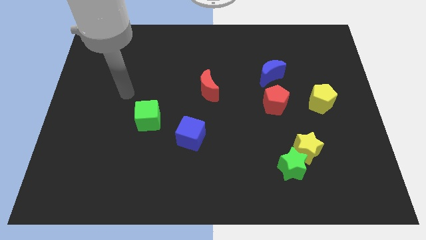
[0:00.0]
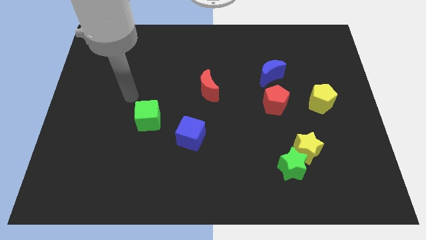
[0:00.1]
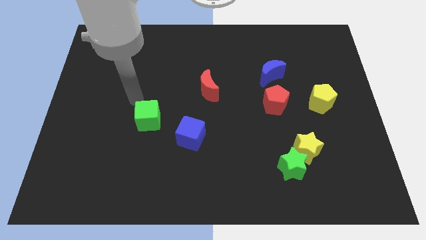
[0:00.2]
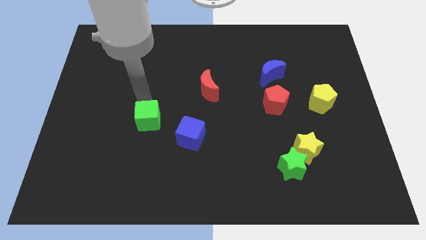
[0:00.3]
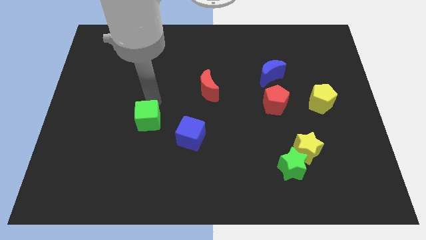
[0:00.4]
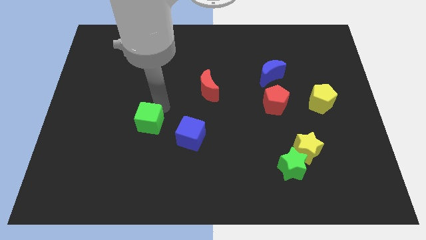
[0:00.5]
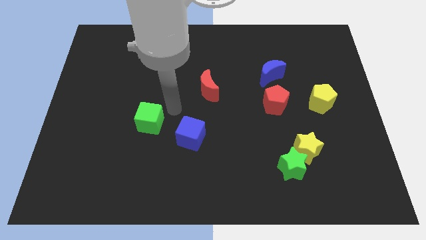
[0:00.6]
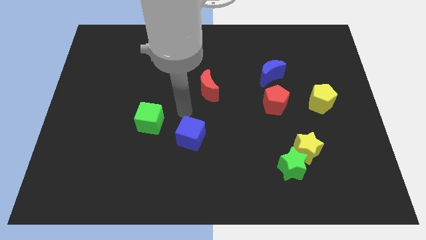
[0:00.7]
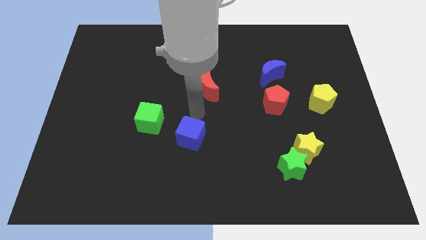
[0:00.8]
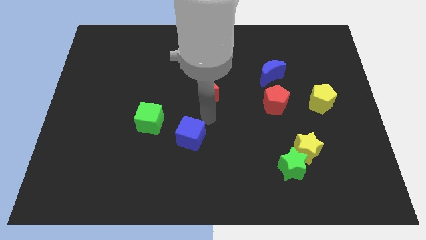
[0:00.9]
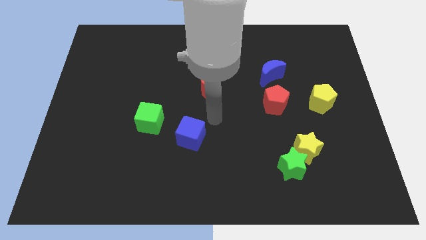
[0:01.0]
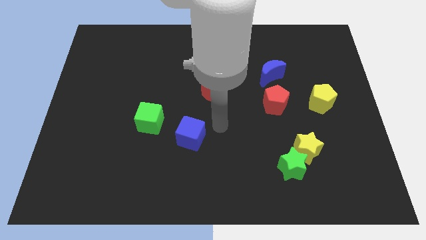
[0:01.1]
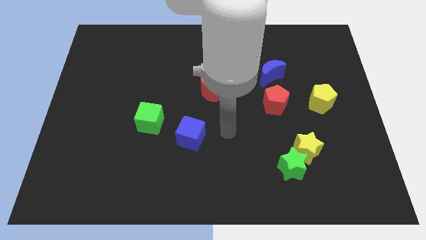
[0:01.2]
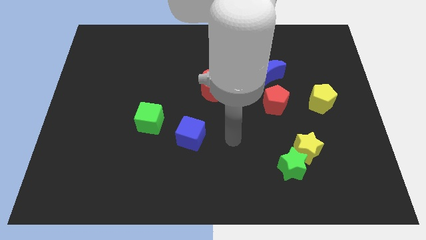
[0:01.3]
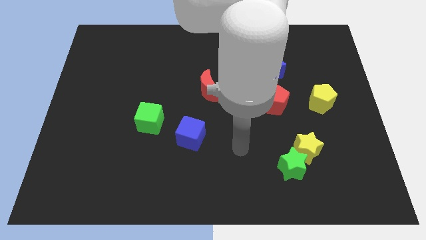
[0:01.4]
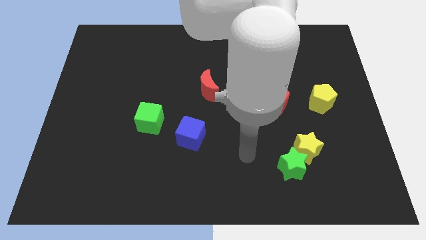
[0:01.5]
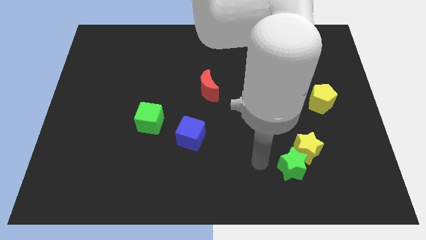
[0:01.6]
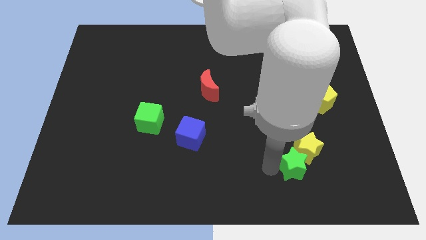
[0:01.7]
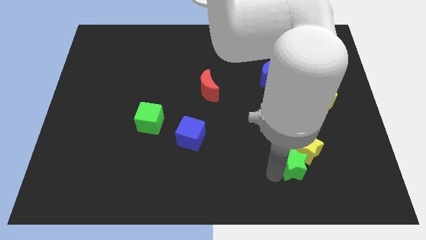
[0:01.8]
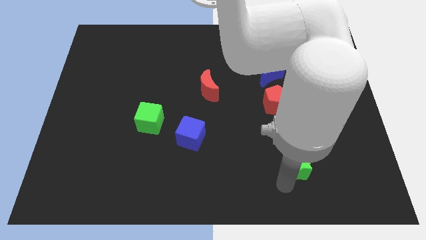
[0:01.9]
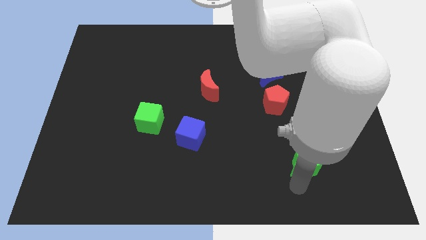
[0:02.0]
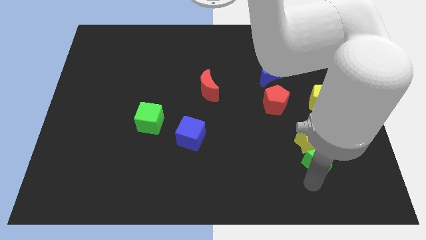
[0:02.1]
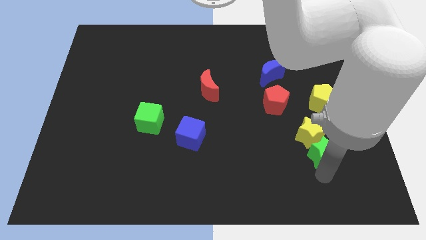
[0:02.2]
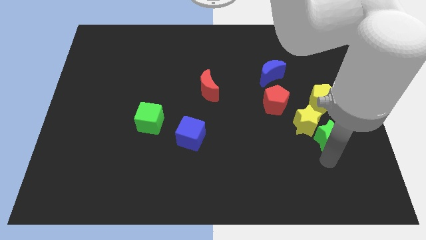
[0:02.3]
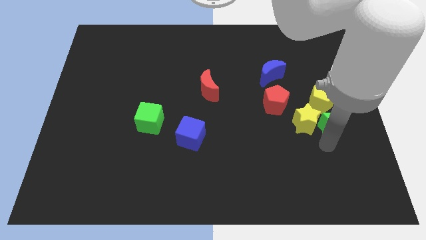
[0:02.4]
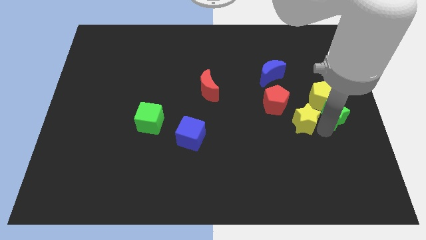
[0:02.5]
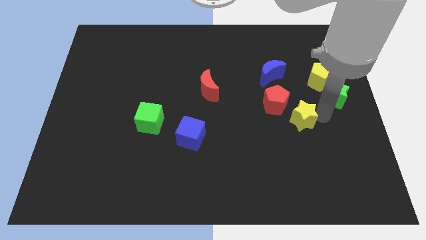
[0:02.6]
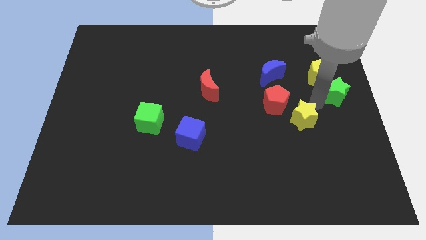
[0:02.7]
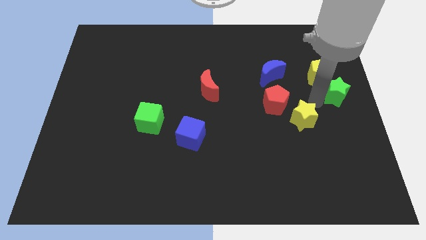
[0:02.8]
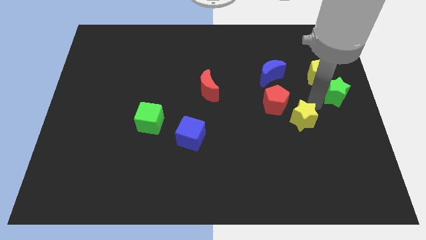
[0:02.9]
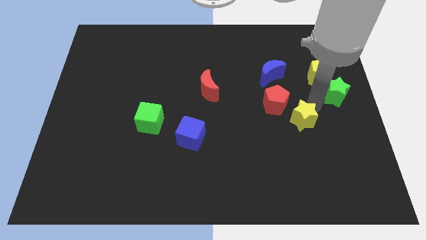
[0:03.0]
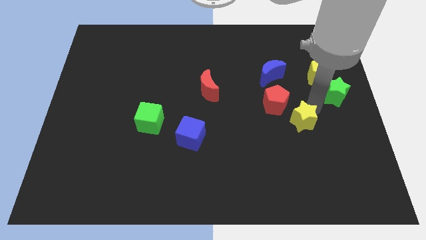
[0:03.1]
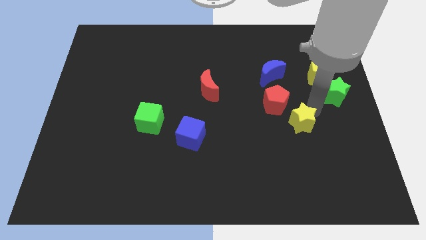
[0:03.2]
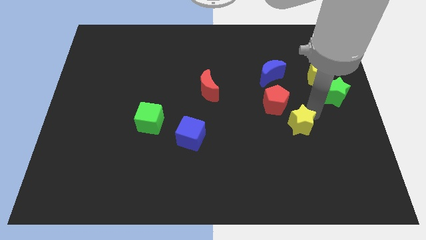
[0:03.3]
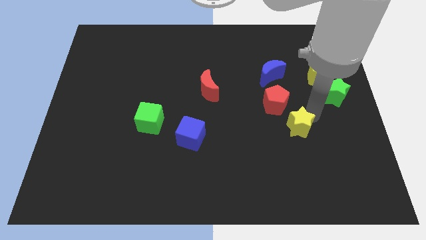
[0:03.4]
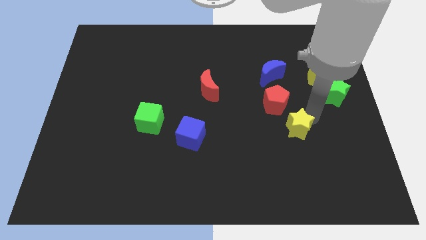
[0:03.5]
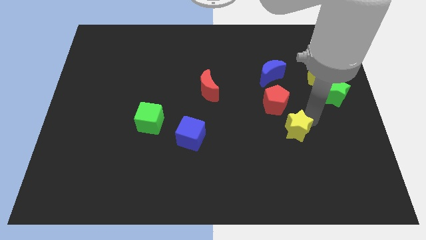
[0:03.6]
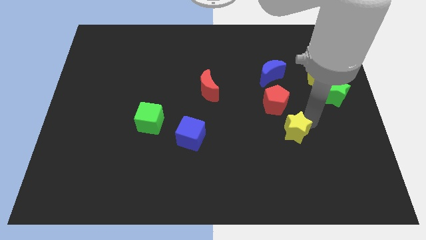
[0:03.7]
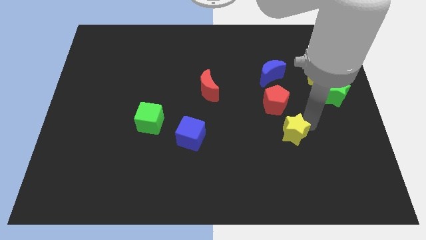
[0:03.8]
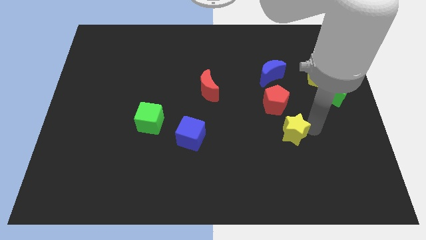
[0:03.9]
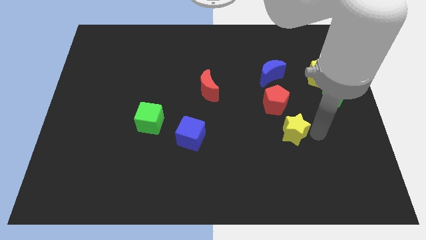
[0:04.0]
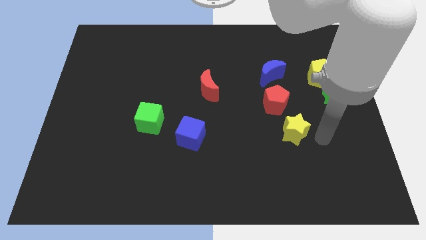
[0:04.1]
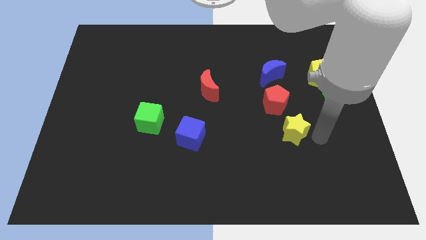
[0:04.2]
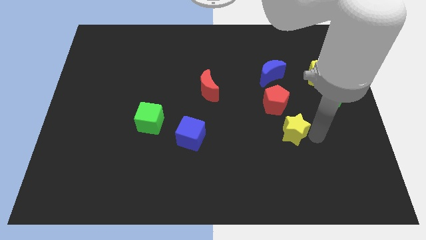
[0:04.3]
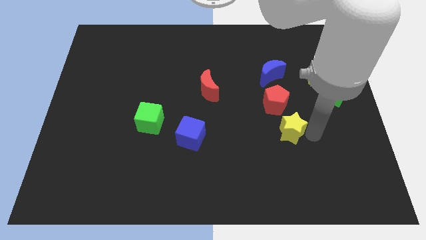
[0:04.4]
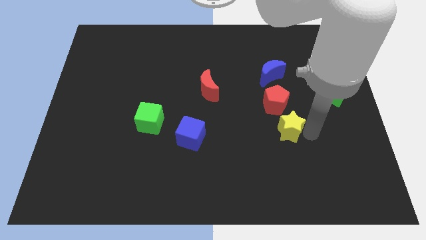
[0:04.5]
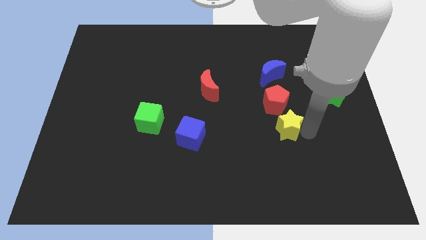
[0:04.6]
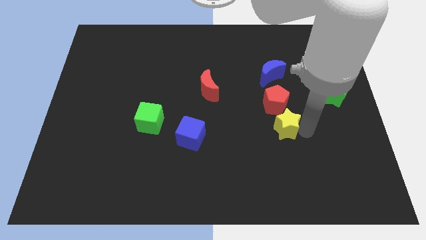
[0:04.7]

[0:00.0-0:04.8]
push the yellow star upwards and left diagonally slightly

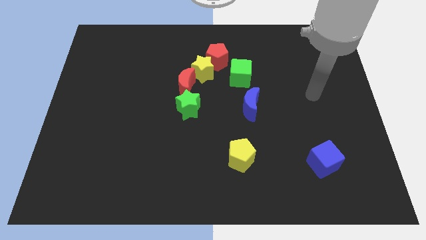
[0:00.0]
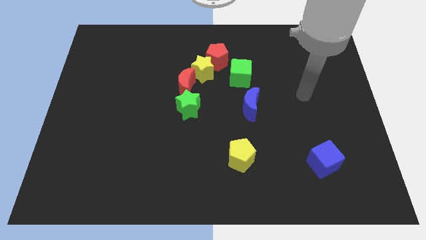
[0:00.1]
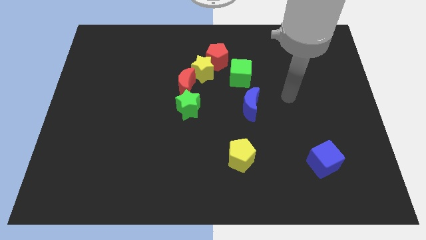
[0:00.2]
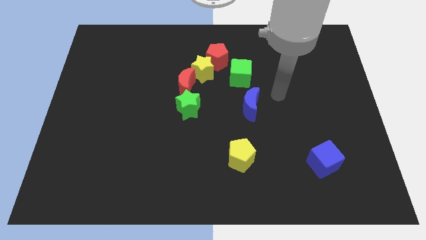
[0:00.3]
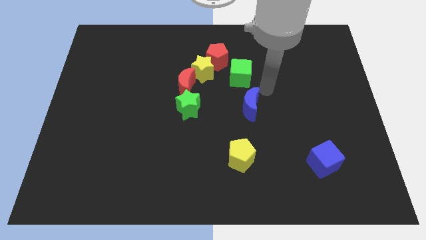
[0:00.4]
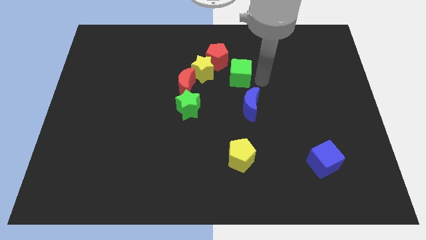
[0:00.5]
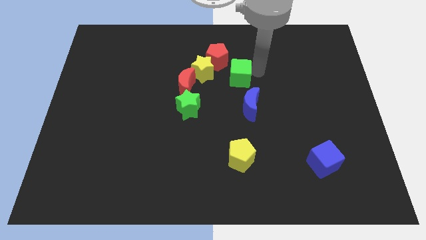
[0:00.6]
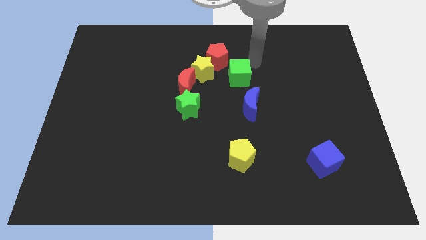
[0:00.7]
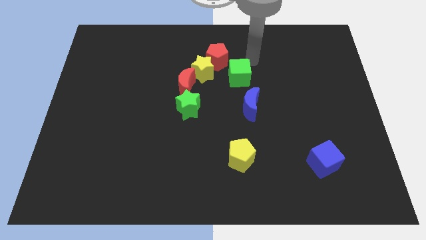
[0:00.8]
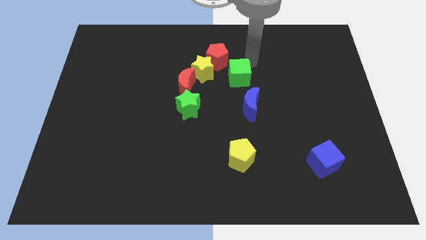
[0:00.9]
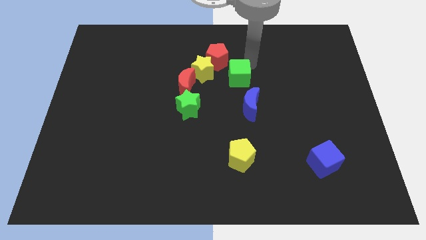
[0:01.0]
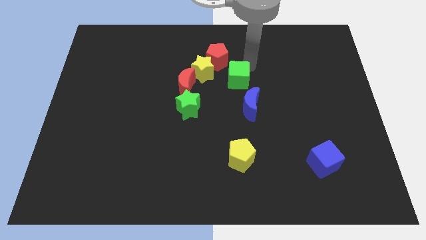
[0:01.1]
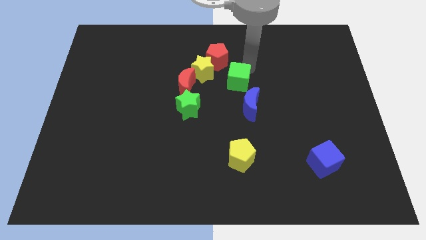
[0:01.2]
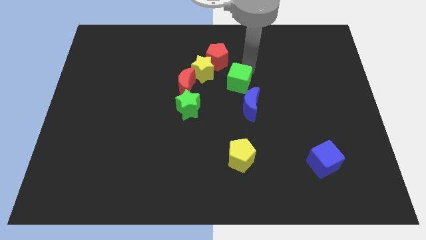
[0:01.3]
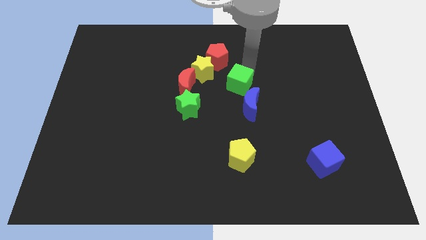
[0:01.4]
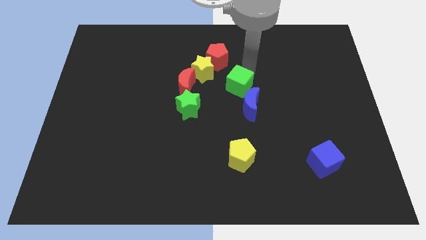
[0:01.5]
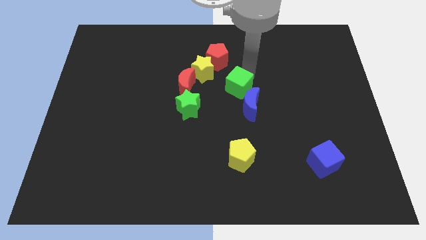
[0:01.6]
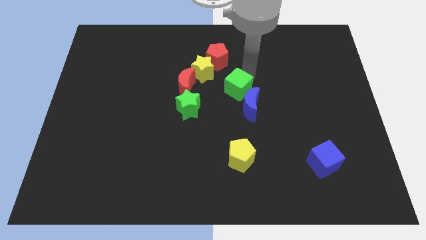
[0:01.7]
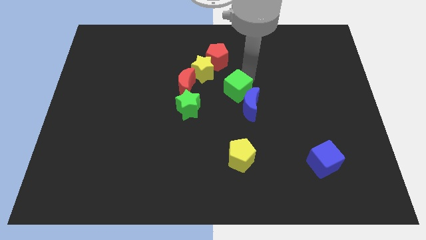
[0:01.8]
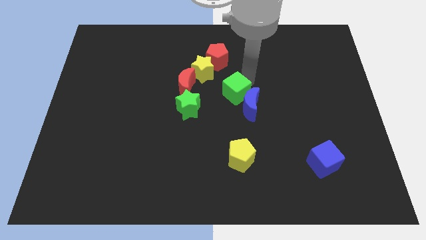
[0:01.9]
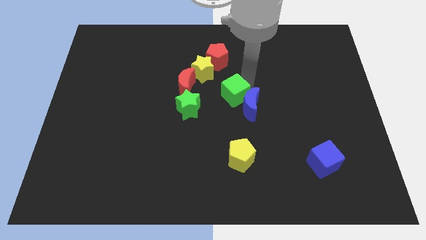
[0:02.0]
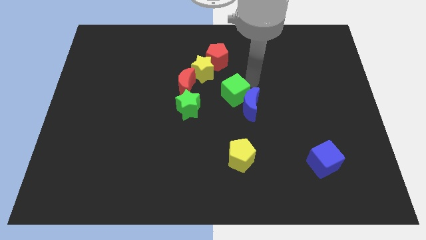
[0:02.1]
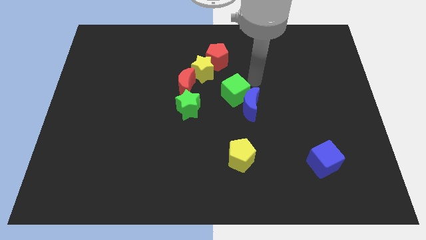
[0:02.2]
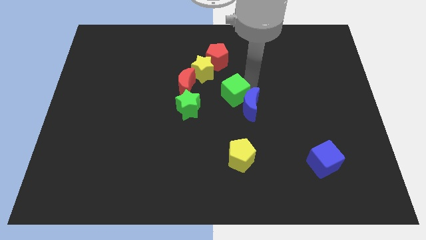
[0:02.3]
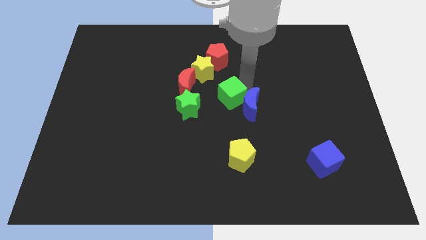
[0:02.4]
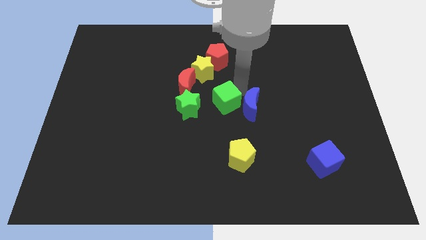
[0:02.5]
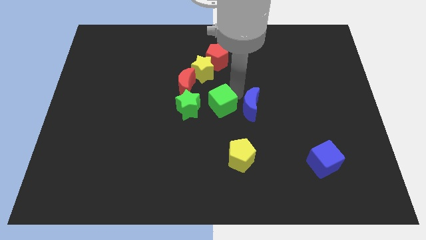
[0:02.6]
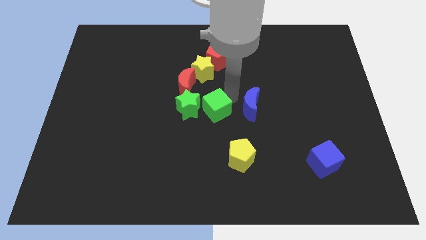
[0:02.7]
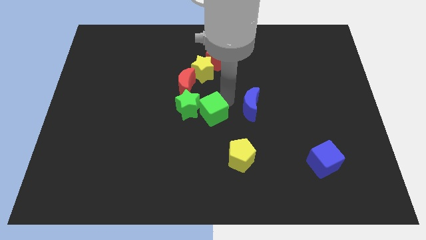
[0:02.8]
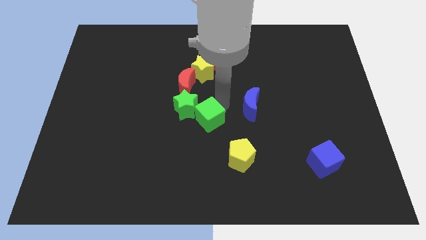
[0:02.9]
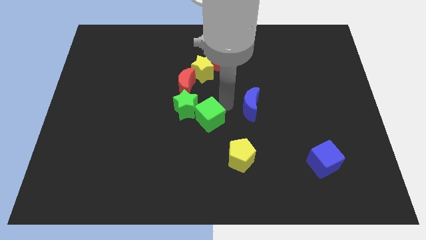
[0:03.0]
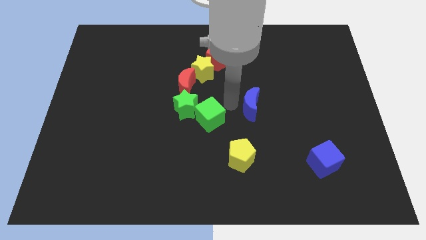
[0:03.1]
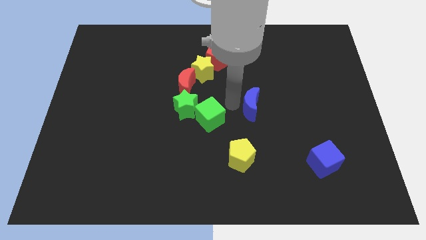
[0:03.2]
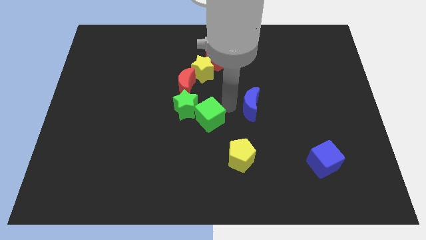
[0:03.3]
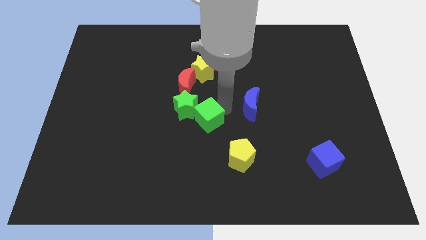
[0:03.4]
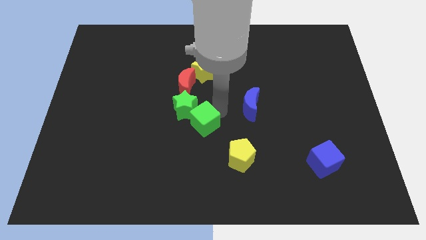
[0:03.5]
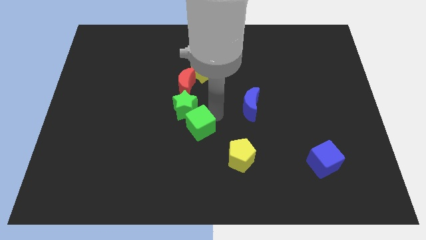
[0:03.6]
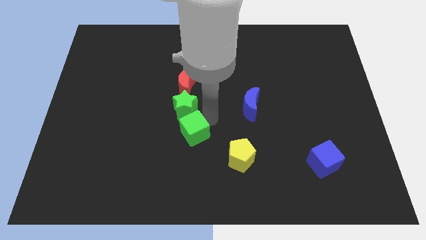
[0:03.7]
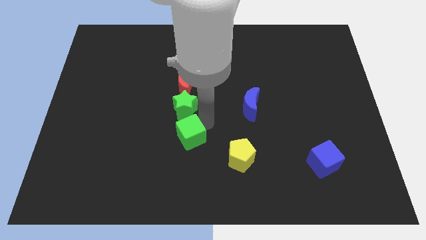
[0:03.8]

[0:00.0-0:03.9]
push the green cube downwards and left diagonally
